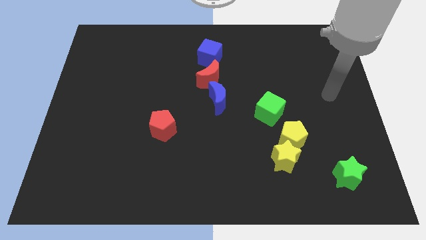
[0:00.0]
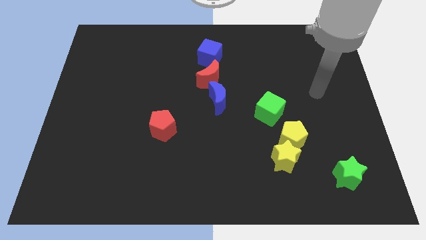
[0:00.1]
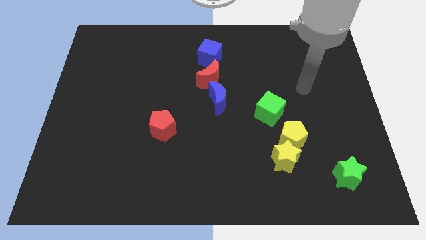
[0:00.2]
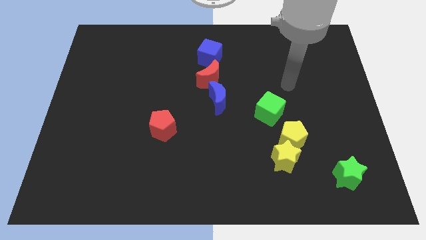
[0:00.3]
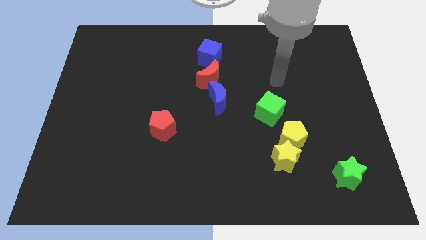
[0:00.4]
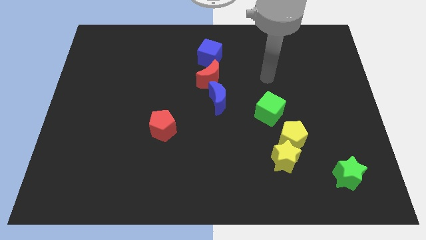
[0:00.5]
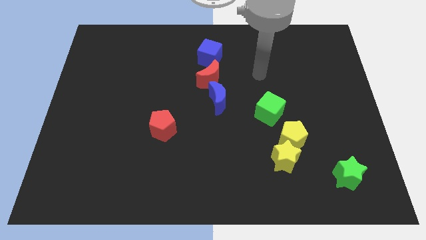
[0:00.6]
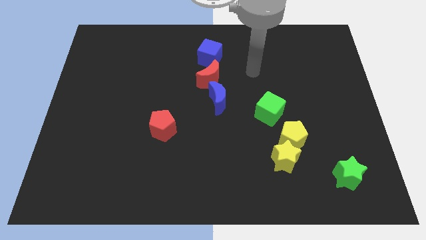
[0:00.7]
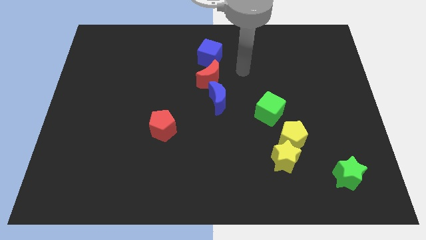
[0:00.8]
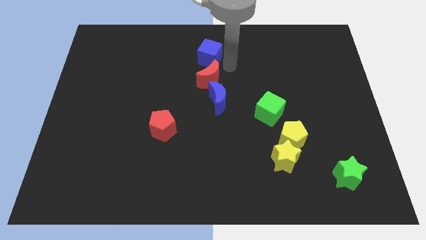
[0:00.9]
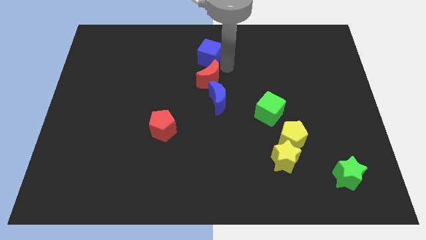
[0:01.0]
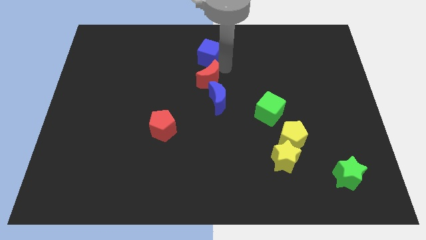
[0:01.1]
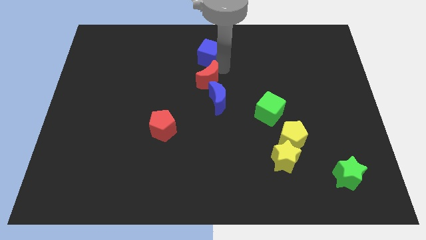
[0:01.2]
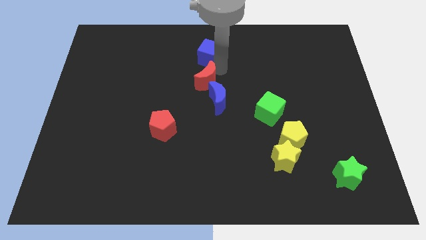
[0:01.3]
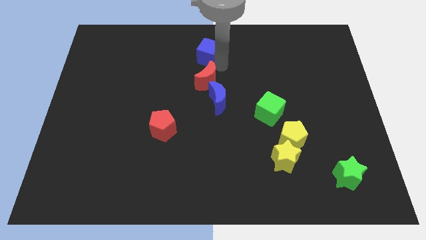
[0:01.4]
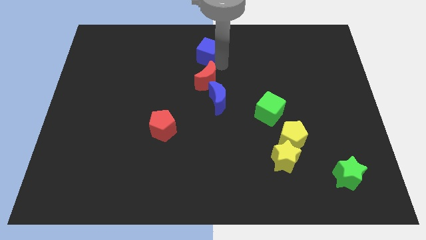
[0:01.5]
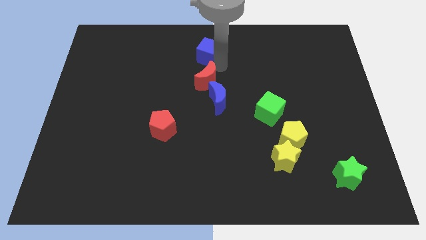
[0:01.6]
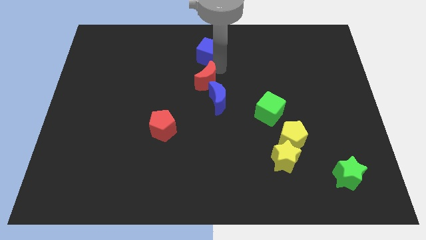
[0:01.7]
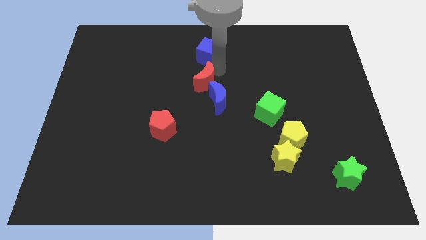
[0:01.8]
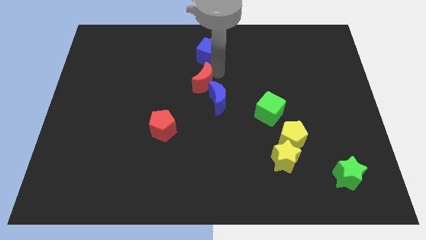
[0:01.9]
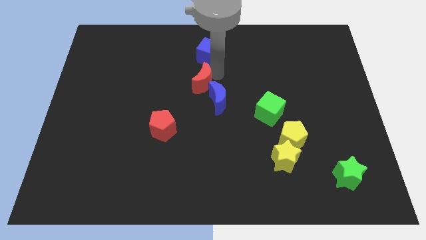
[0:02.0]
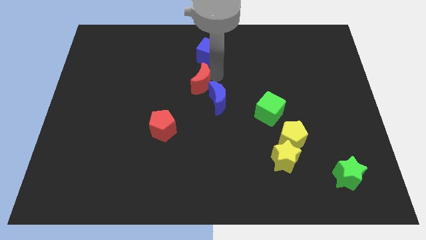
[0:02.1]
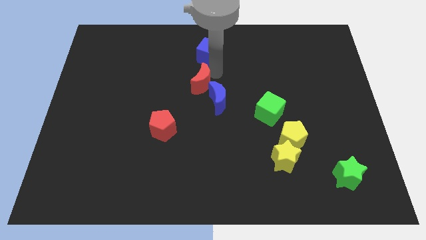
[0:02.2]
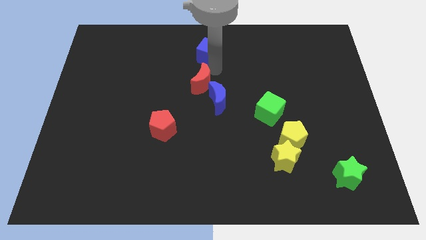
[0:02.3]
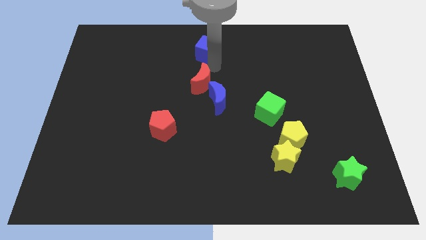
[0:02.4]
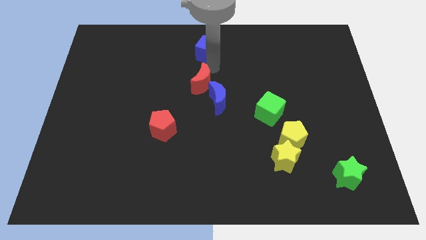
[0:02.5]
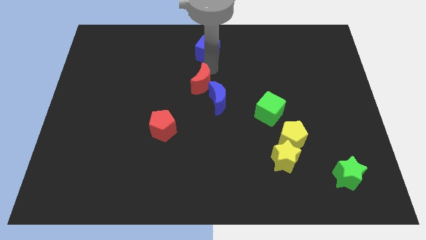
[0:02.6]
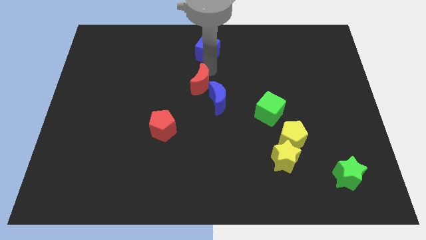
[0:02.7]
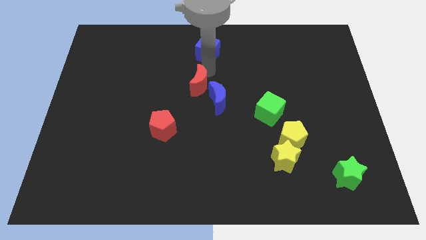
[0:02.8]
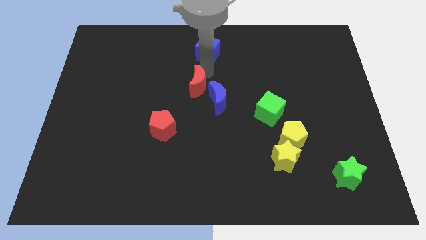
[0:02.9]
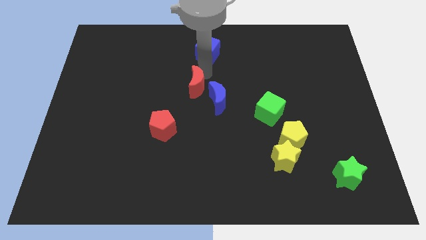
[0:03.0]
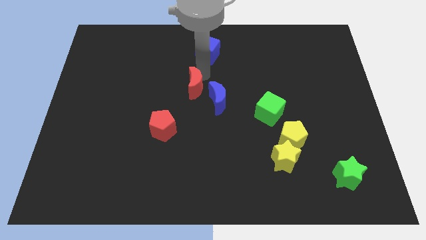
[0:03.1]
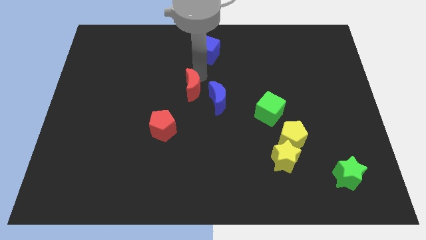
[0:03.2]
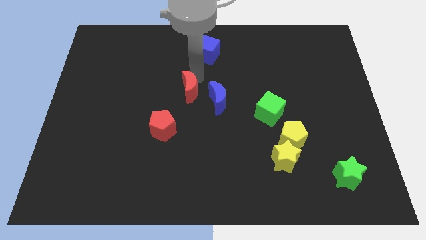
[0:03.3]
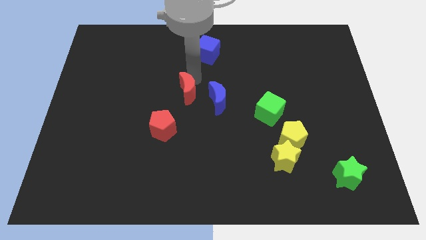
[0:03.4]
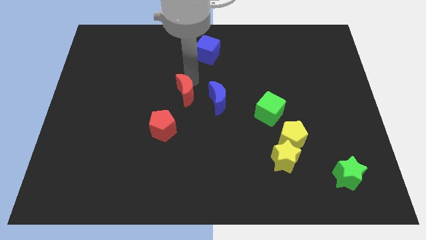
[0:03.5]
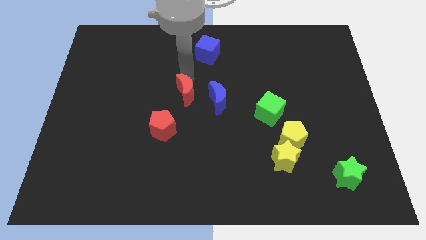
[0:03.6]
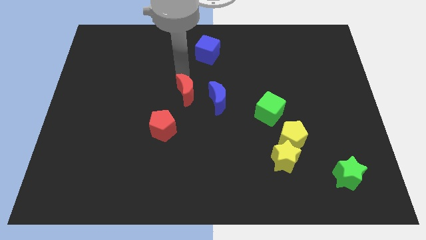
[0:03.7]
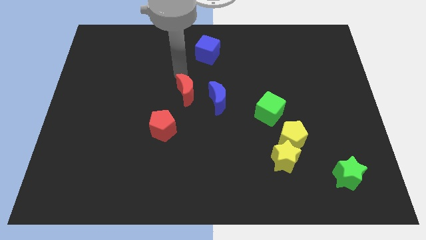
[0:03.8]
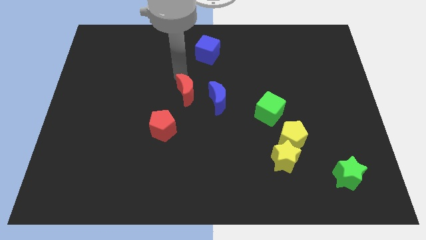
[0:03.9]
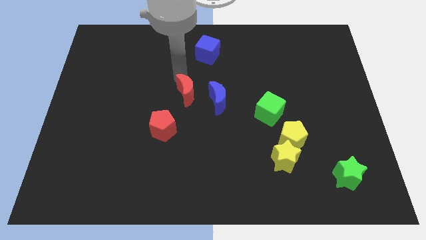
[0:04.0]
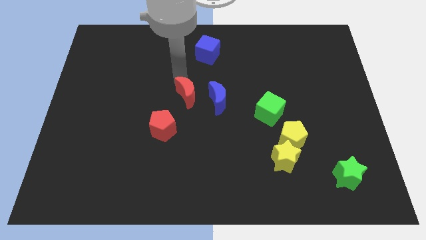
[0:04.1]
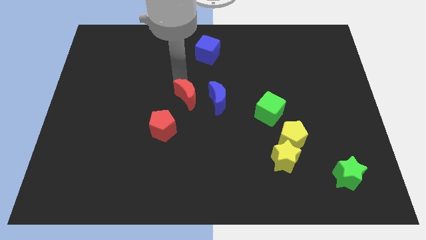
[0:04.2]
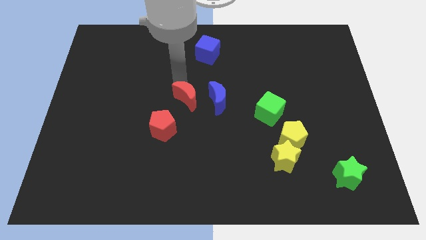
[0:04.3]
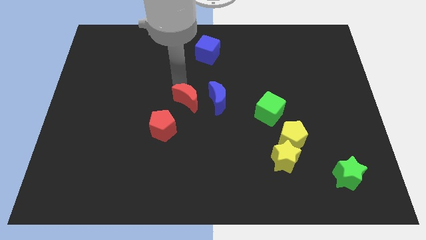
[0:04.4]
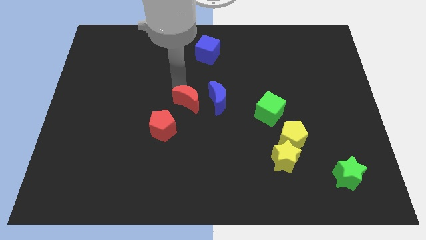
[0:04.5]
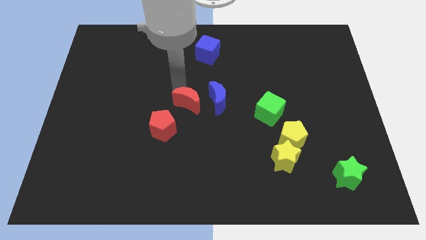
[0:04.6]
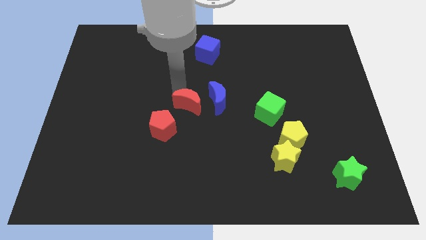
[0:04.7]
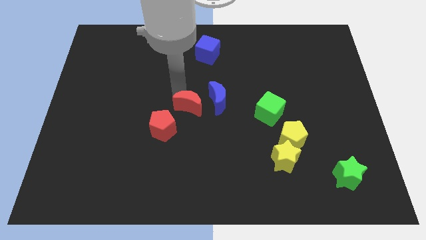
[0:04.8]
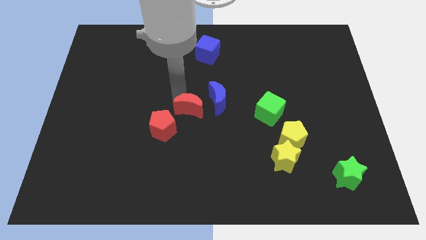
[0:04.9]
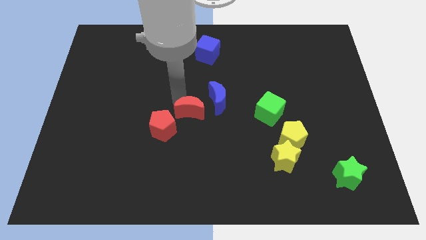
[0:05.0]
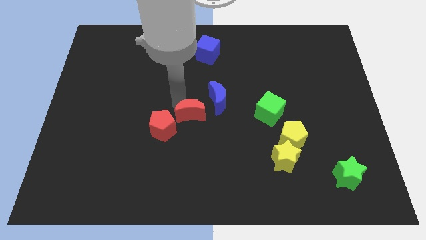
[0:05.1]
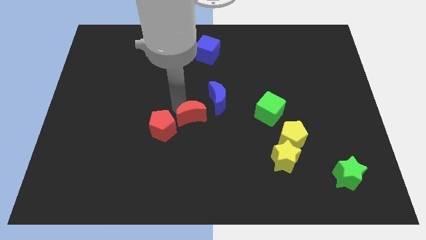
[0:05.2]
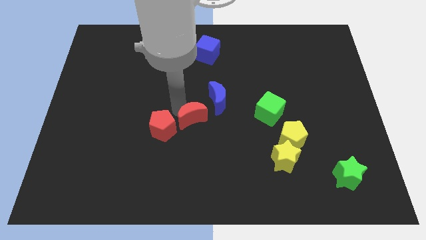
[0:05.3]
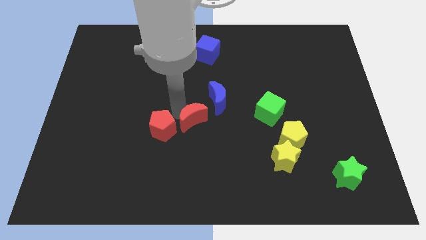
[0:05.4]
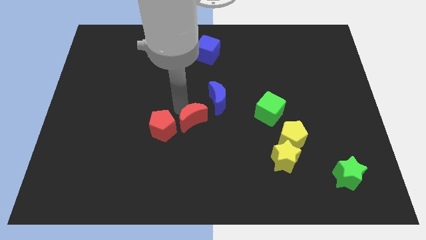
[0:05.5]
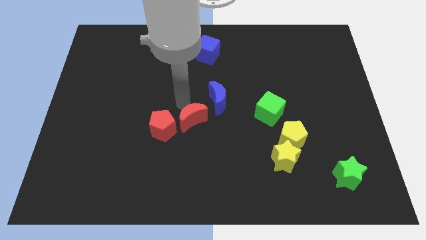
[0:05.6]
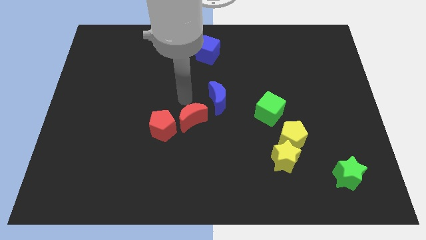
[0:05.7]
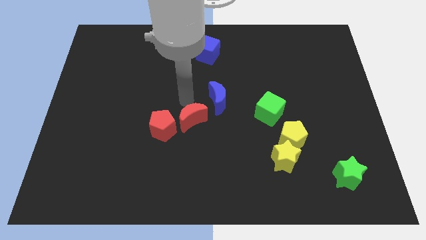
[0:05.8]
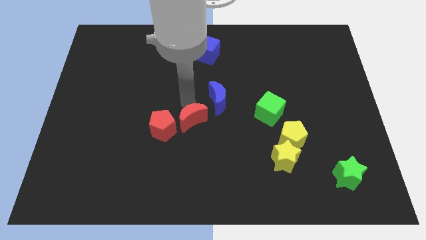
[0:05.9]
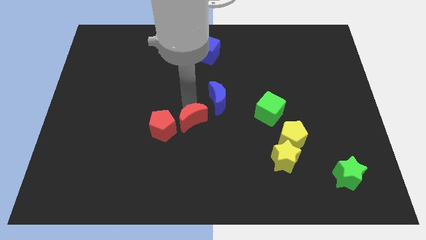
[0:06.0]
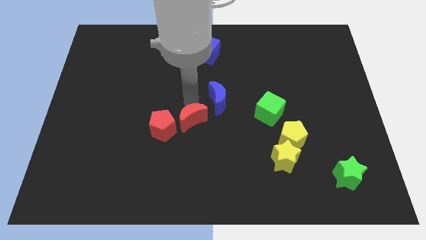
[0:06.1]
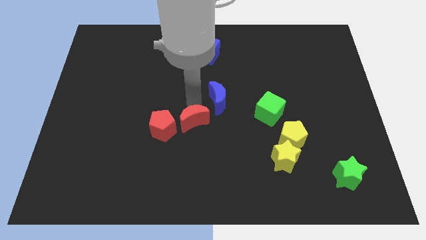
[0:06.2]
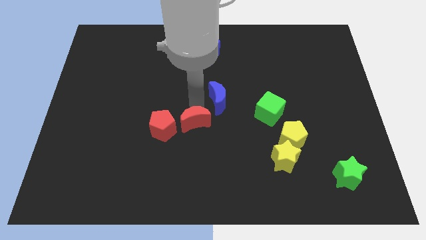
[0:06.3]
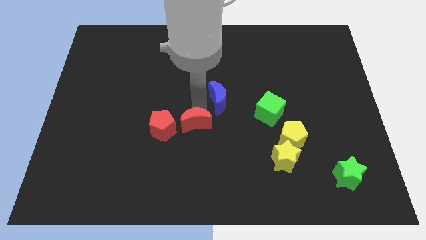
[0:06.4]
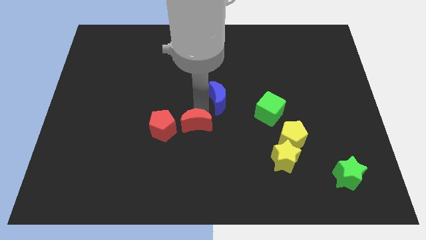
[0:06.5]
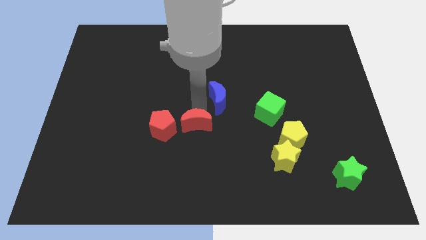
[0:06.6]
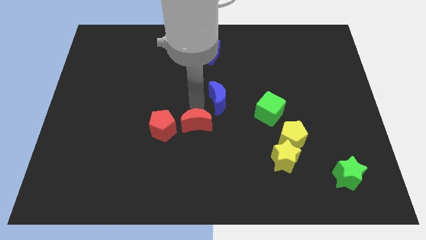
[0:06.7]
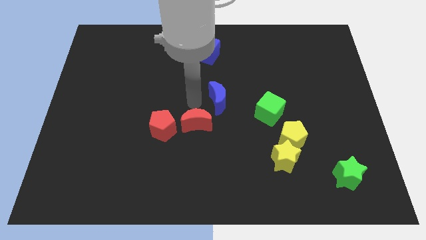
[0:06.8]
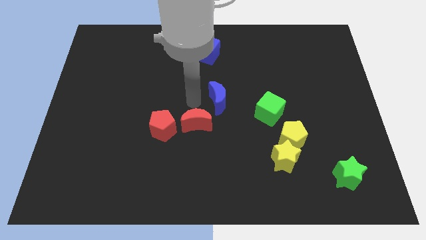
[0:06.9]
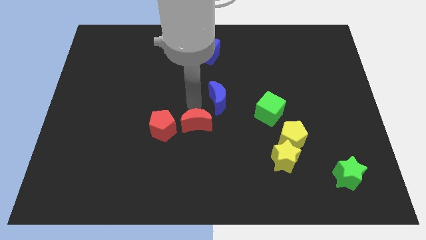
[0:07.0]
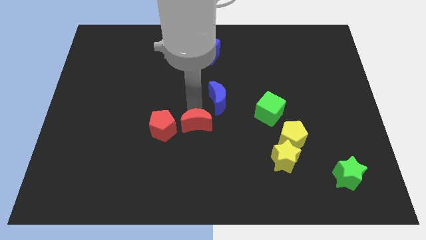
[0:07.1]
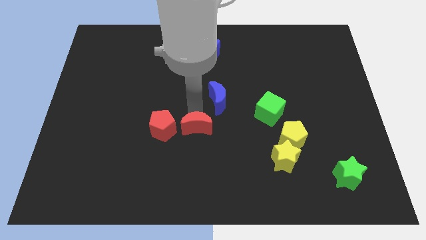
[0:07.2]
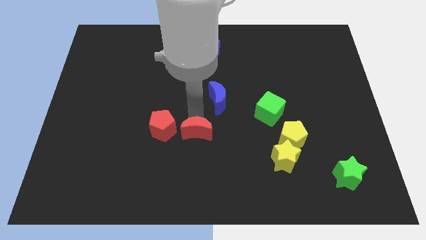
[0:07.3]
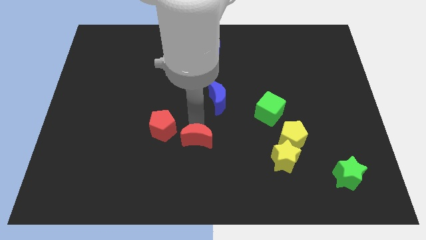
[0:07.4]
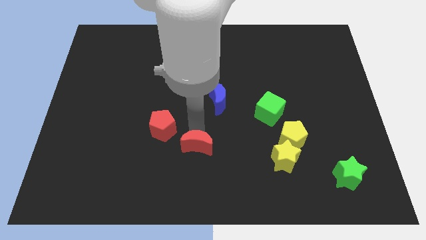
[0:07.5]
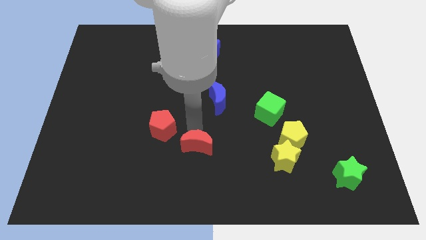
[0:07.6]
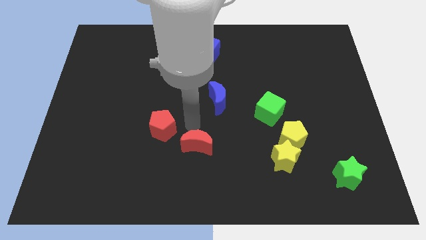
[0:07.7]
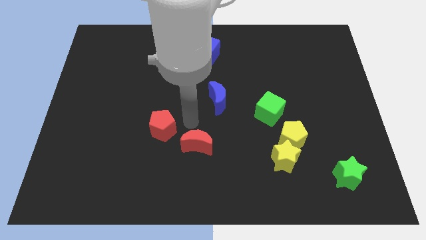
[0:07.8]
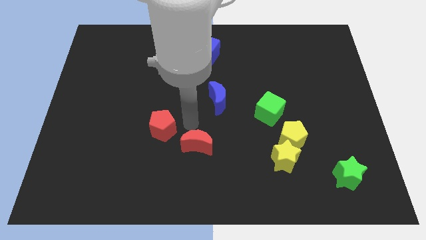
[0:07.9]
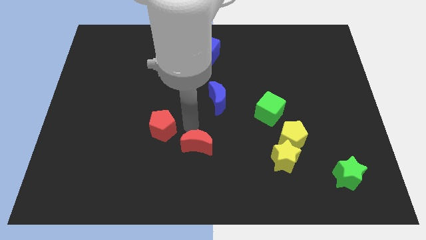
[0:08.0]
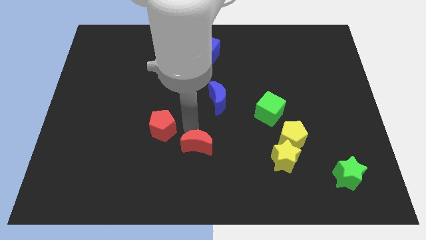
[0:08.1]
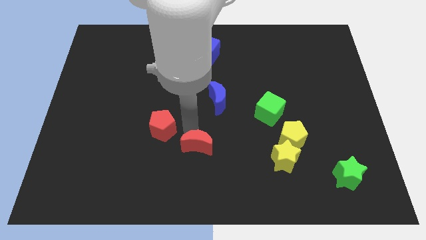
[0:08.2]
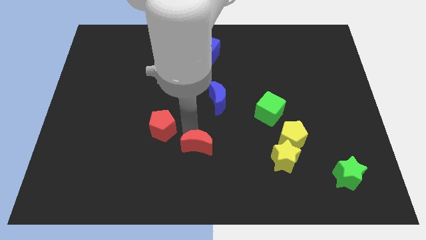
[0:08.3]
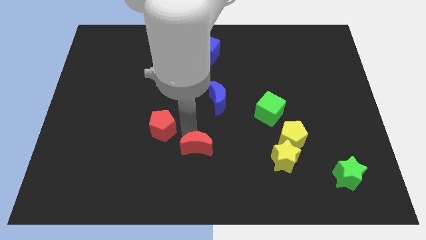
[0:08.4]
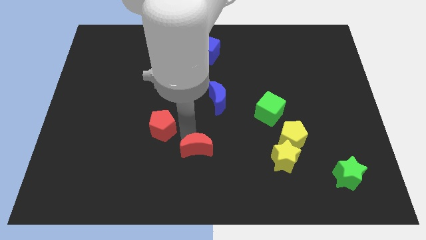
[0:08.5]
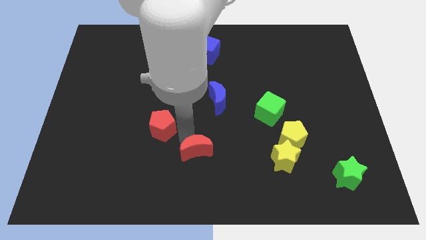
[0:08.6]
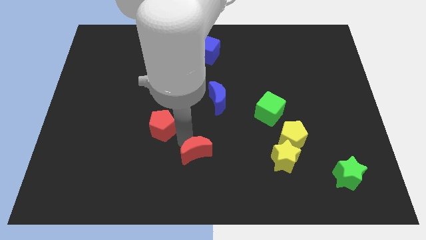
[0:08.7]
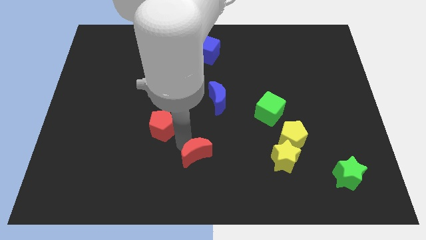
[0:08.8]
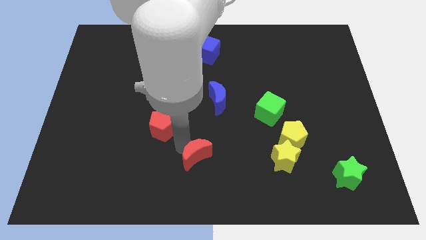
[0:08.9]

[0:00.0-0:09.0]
move the red moon to the bottom side
